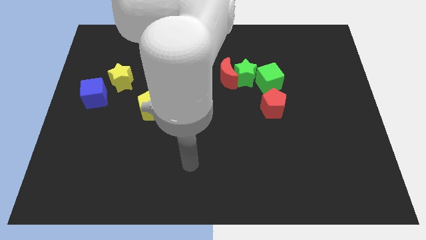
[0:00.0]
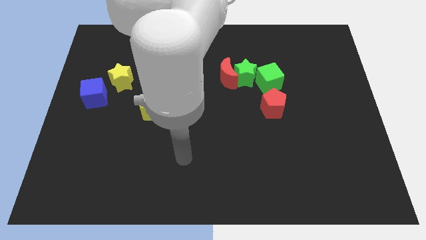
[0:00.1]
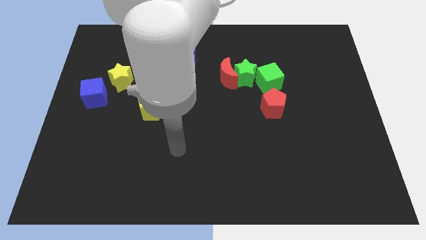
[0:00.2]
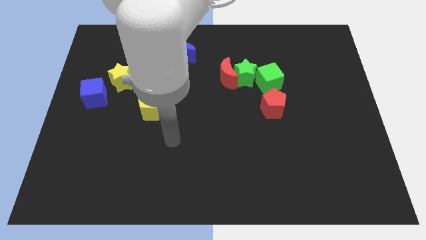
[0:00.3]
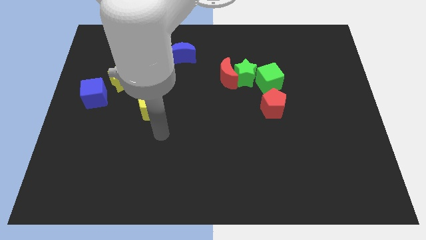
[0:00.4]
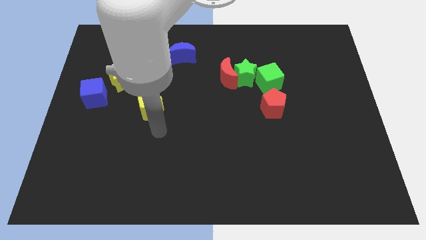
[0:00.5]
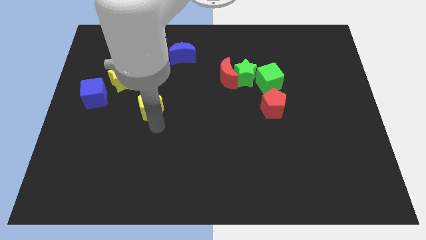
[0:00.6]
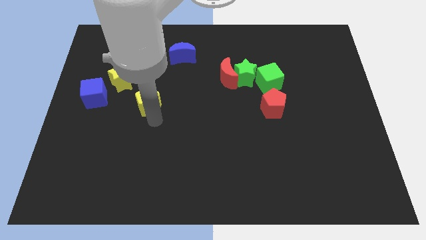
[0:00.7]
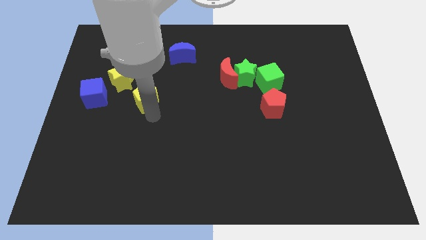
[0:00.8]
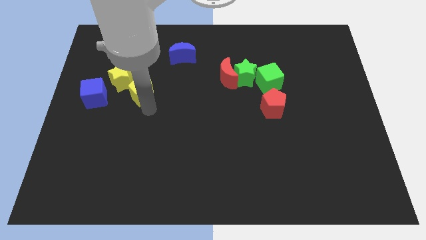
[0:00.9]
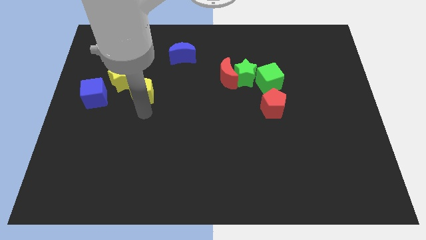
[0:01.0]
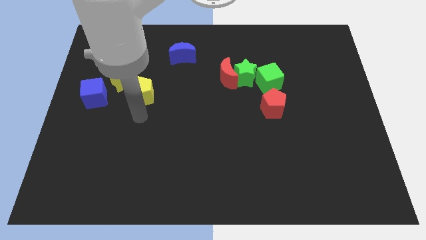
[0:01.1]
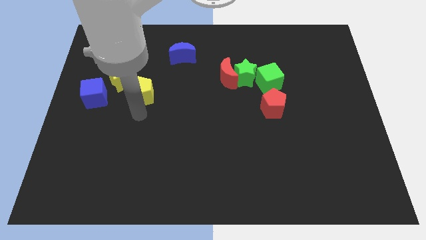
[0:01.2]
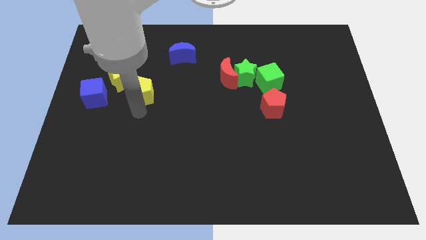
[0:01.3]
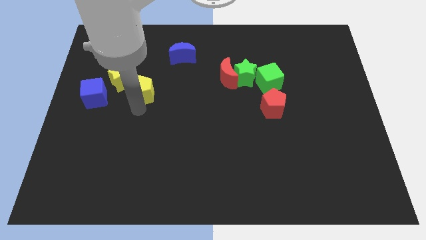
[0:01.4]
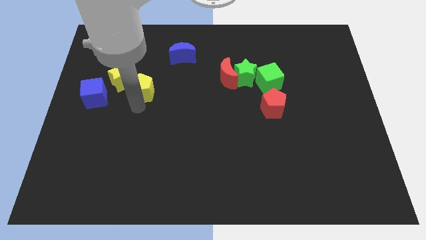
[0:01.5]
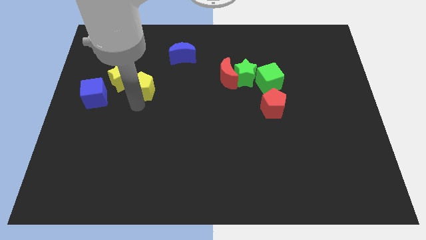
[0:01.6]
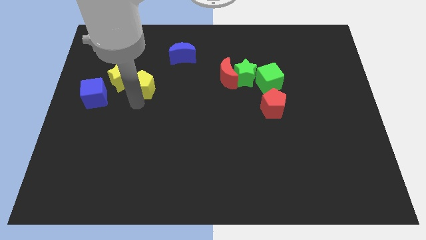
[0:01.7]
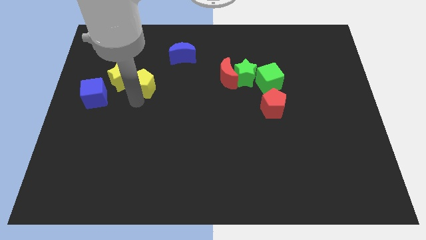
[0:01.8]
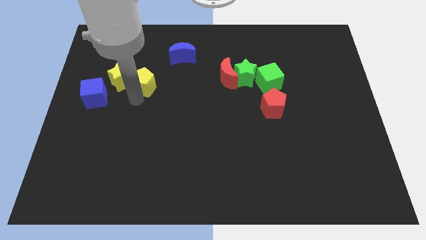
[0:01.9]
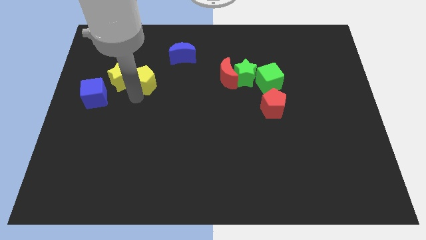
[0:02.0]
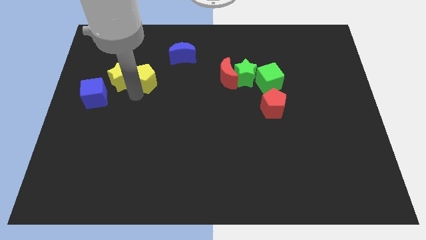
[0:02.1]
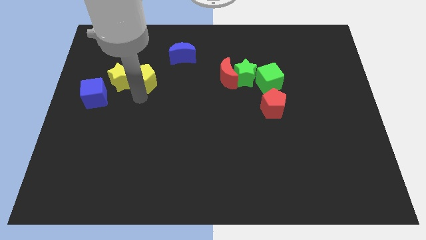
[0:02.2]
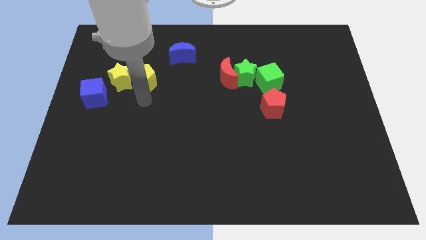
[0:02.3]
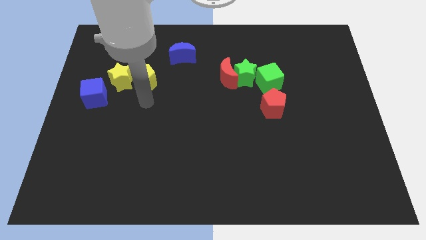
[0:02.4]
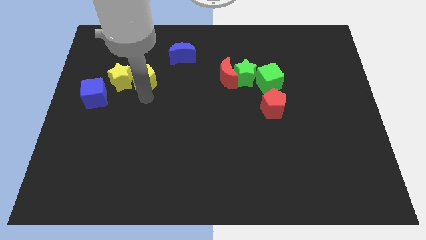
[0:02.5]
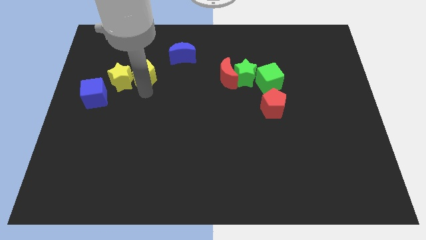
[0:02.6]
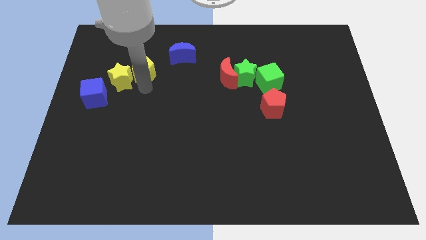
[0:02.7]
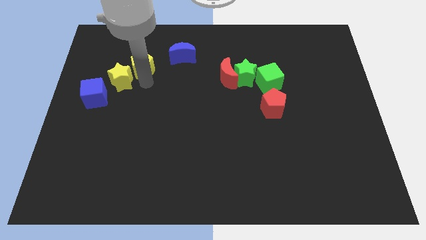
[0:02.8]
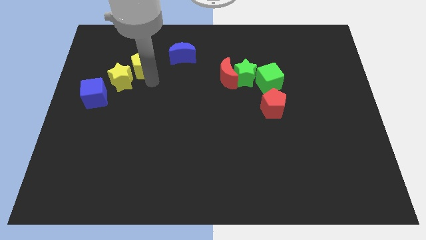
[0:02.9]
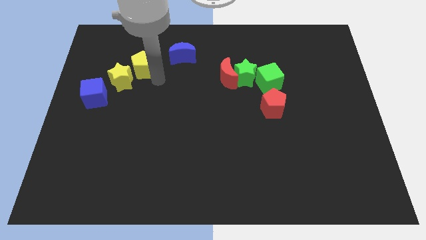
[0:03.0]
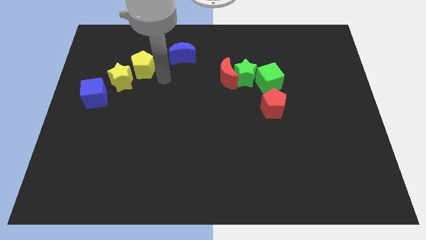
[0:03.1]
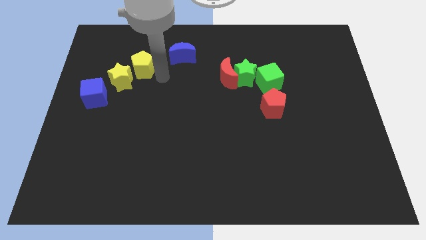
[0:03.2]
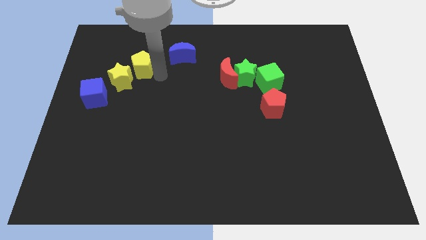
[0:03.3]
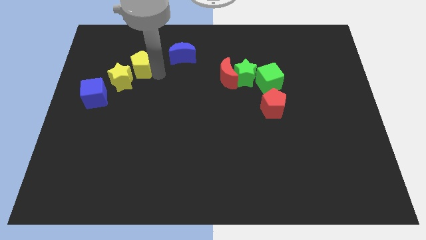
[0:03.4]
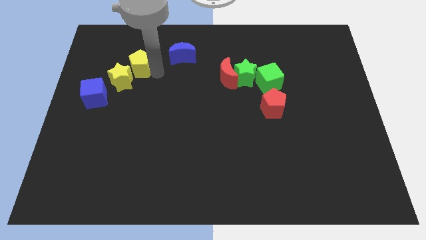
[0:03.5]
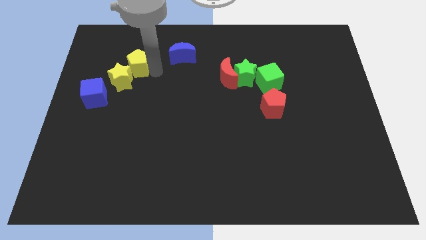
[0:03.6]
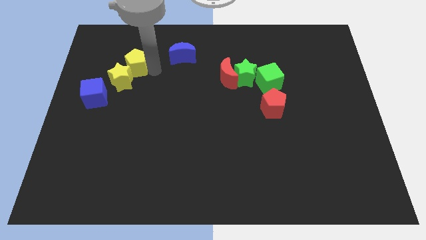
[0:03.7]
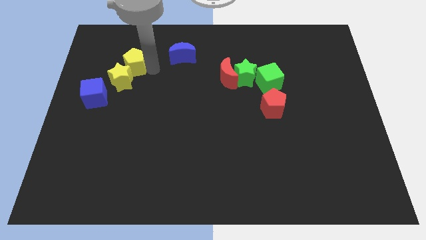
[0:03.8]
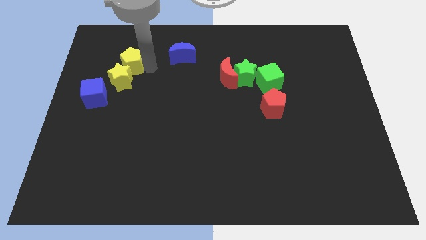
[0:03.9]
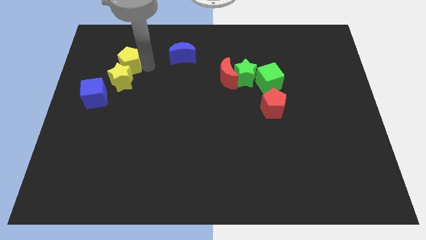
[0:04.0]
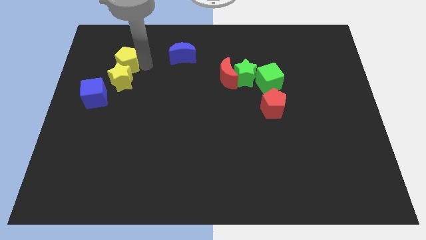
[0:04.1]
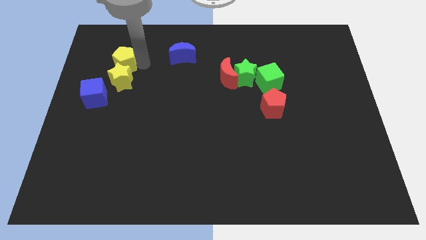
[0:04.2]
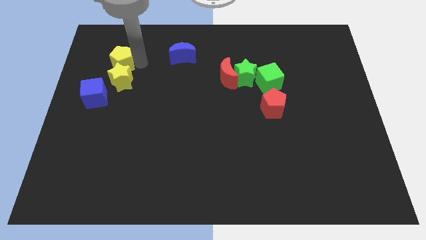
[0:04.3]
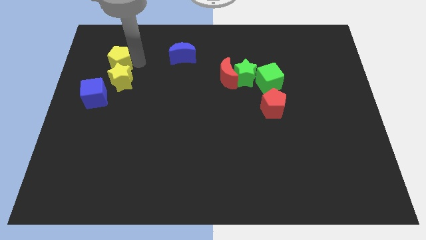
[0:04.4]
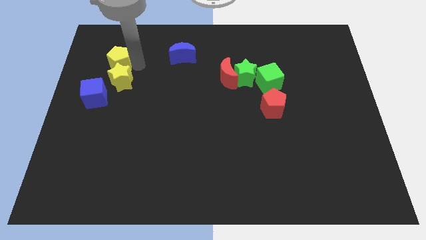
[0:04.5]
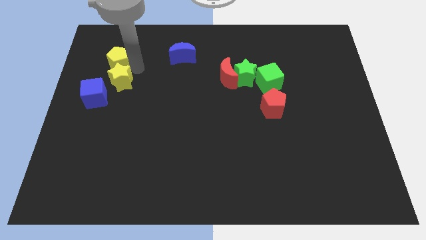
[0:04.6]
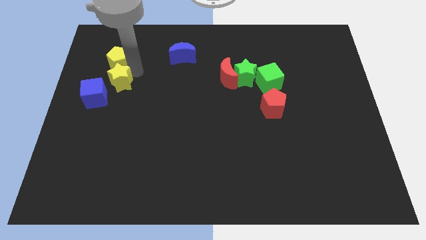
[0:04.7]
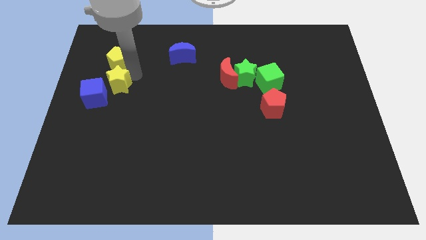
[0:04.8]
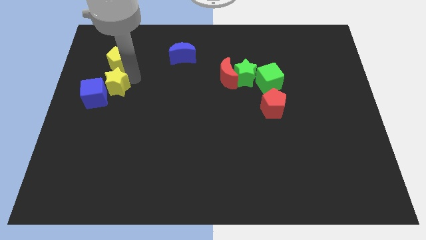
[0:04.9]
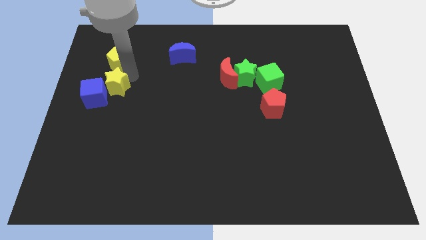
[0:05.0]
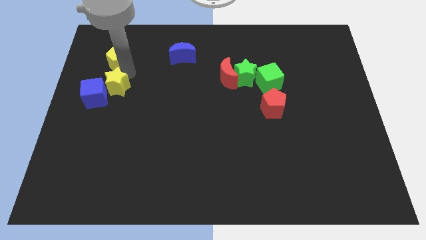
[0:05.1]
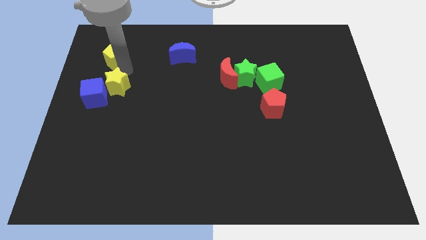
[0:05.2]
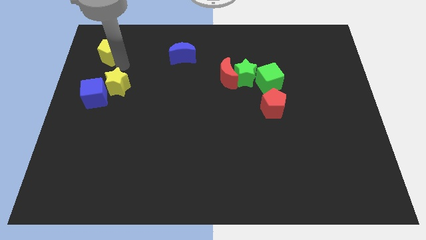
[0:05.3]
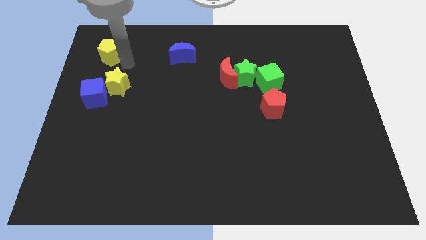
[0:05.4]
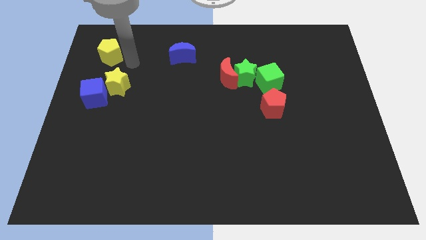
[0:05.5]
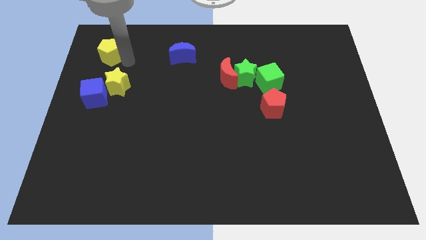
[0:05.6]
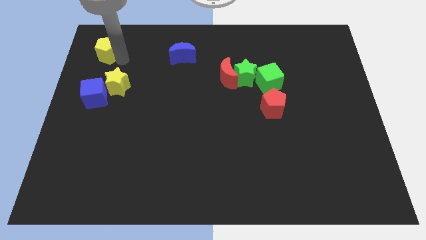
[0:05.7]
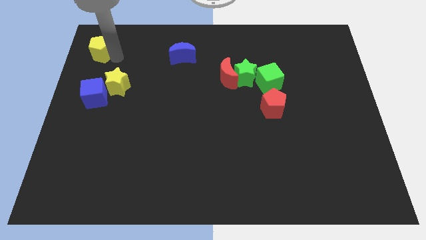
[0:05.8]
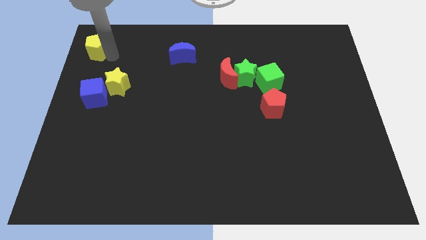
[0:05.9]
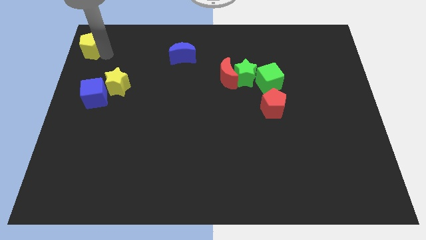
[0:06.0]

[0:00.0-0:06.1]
push the yellow pentagon to the upper left corner
